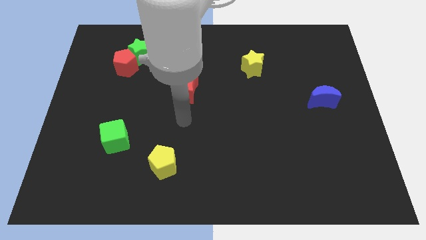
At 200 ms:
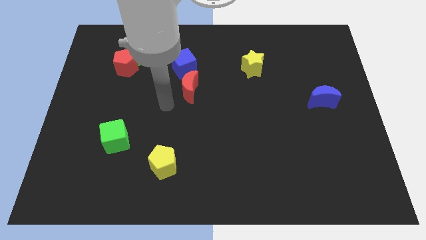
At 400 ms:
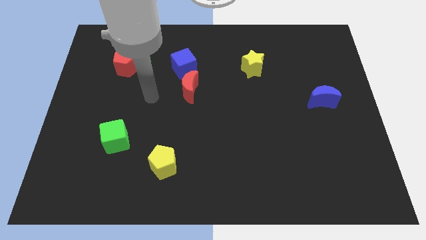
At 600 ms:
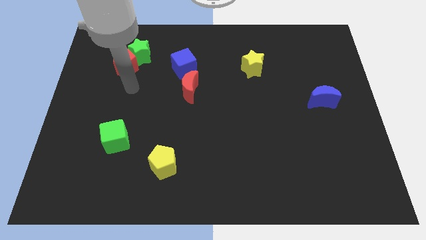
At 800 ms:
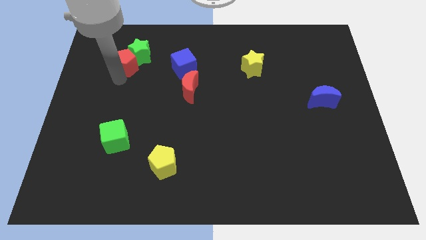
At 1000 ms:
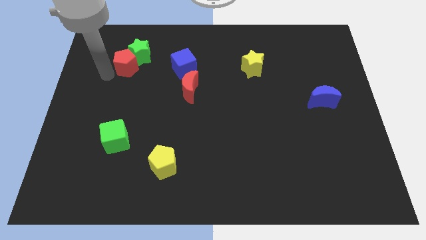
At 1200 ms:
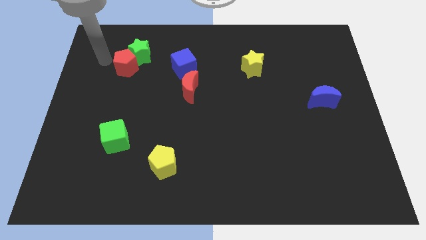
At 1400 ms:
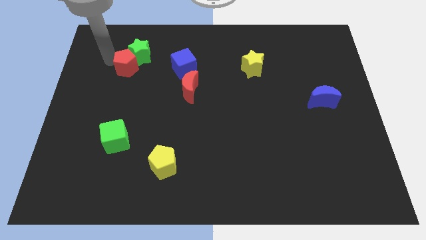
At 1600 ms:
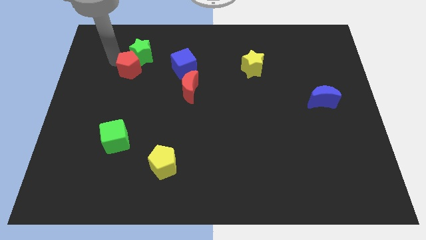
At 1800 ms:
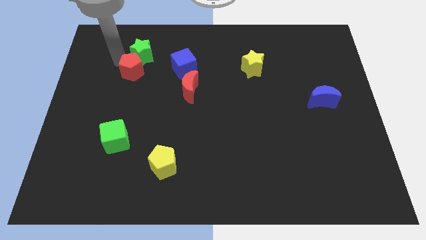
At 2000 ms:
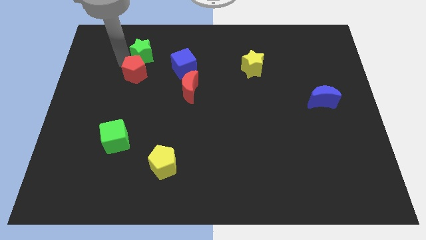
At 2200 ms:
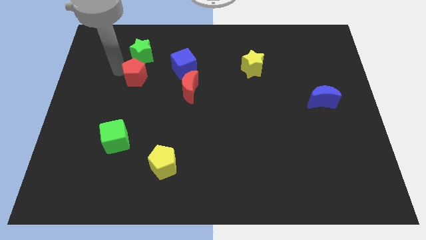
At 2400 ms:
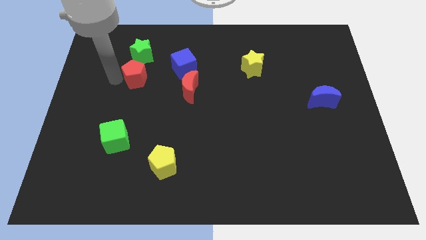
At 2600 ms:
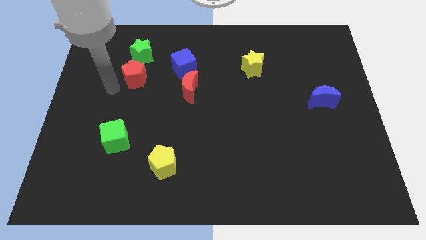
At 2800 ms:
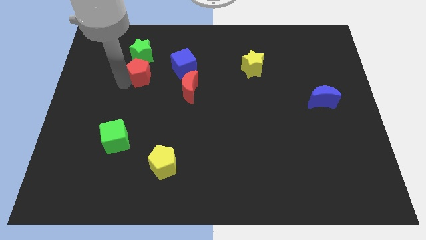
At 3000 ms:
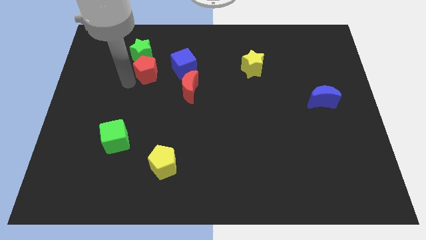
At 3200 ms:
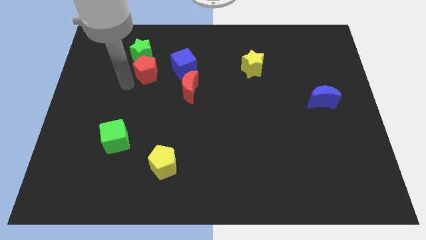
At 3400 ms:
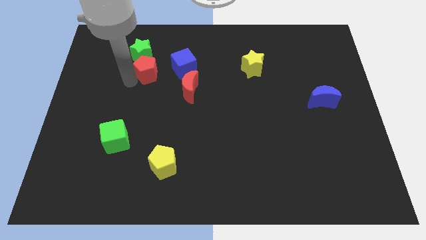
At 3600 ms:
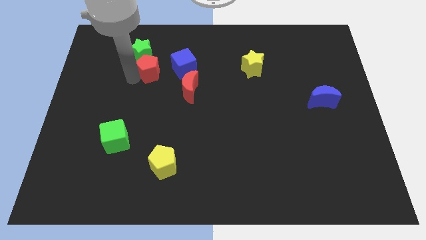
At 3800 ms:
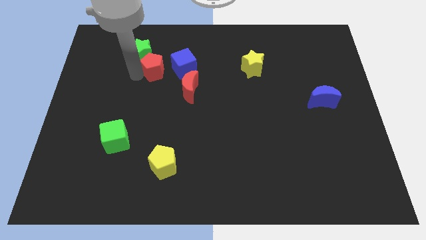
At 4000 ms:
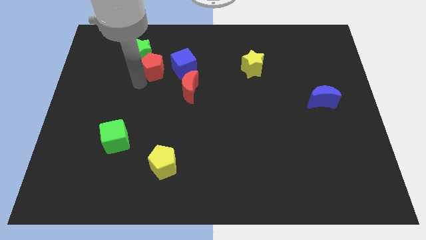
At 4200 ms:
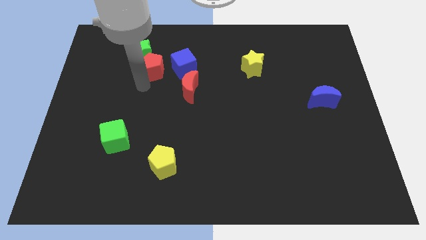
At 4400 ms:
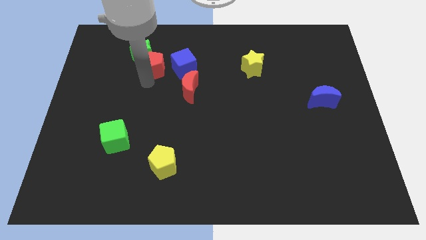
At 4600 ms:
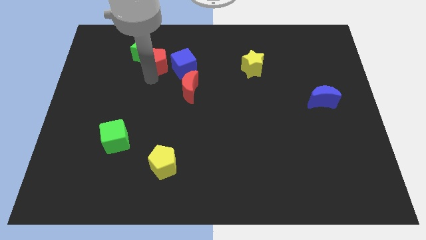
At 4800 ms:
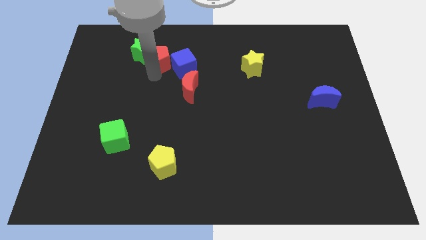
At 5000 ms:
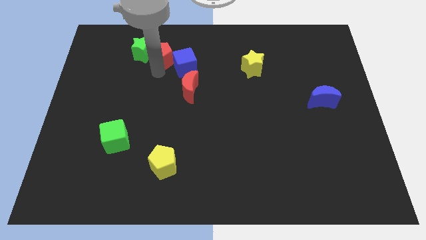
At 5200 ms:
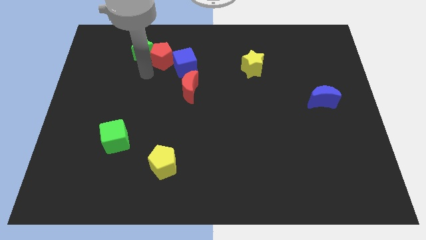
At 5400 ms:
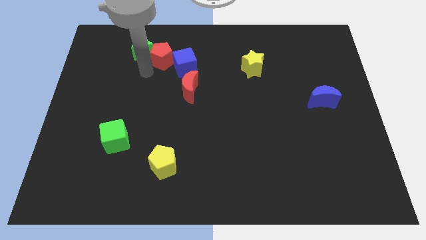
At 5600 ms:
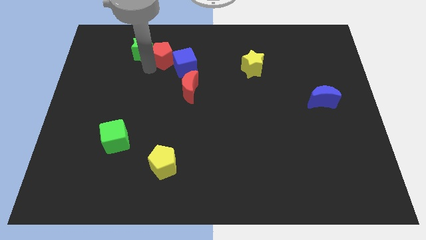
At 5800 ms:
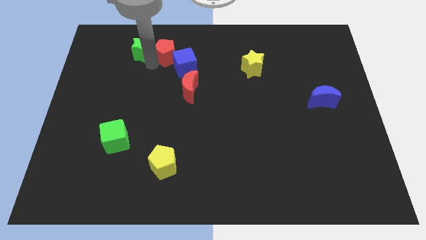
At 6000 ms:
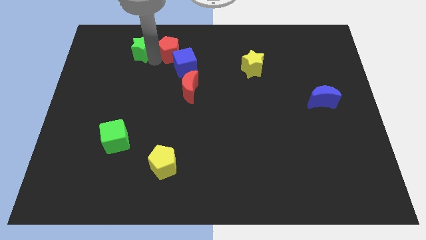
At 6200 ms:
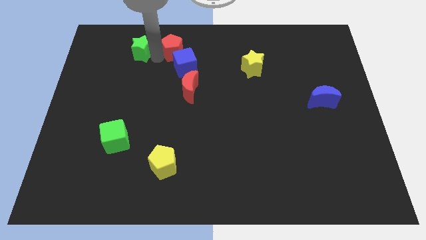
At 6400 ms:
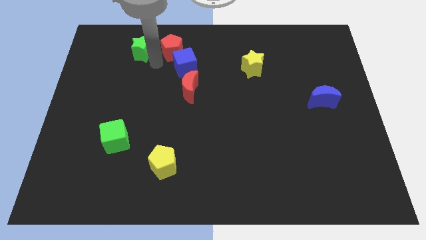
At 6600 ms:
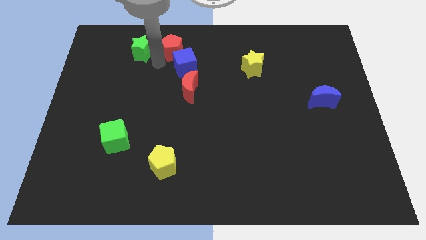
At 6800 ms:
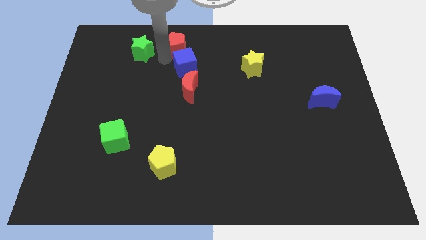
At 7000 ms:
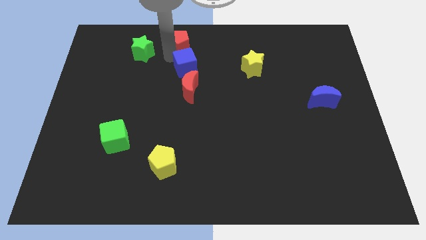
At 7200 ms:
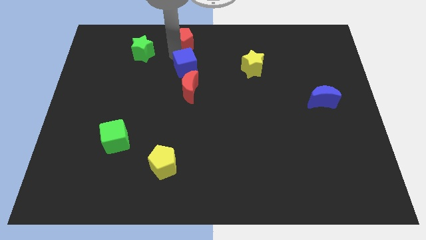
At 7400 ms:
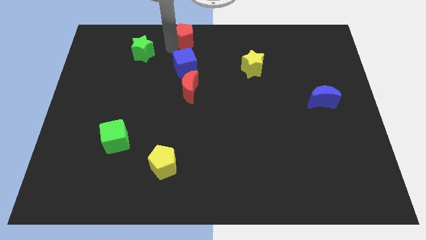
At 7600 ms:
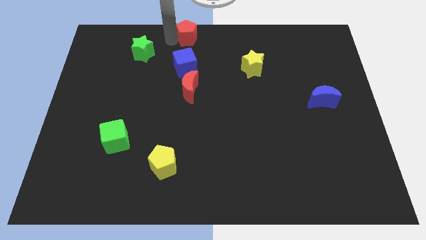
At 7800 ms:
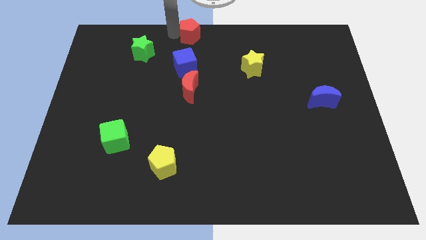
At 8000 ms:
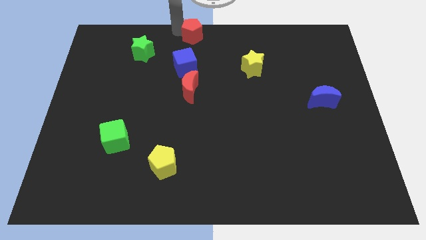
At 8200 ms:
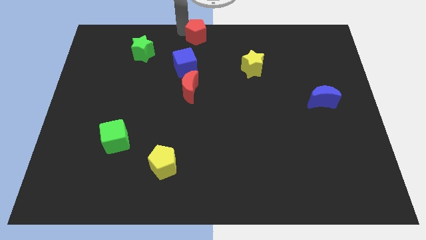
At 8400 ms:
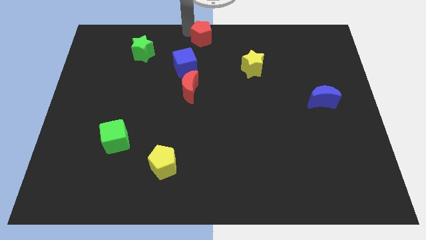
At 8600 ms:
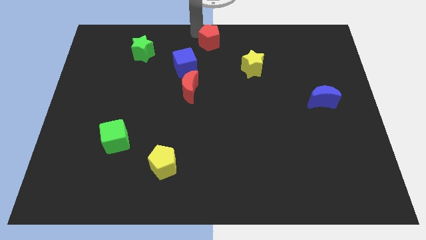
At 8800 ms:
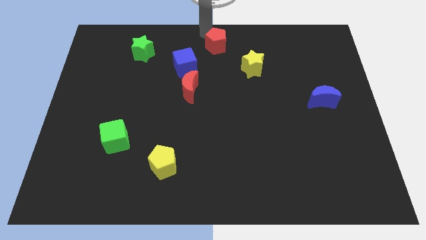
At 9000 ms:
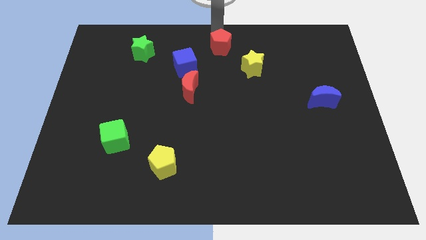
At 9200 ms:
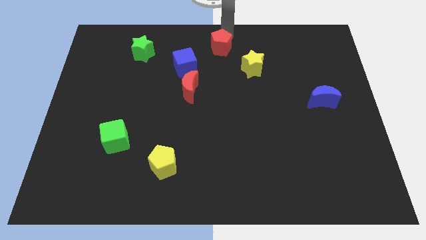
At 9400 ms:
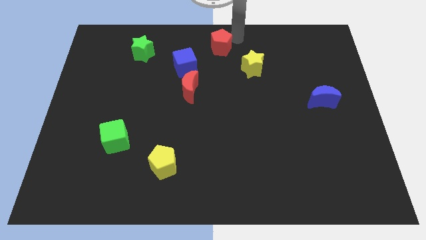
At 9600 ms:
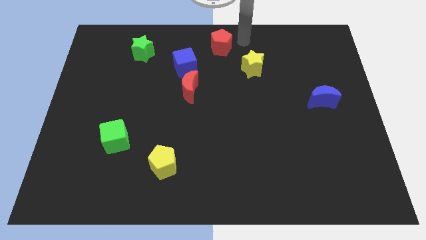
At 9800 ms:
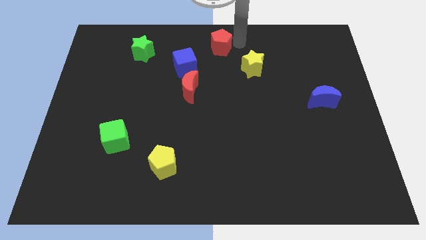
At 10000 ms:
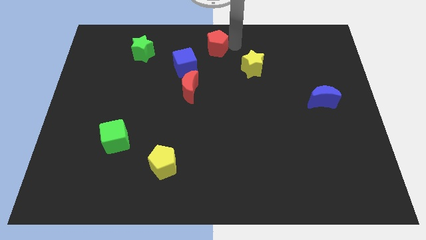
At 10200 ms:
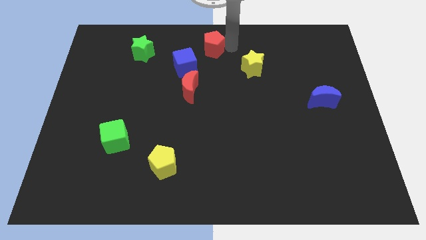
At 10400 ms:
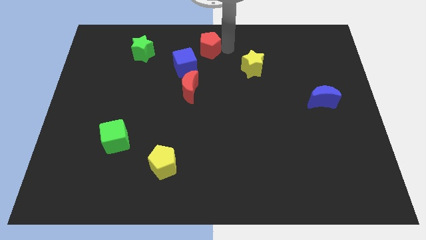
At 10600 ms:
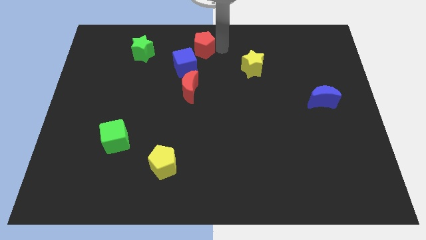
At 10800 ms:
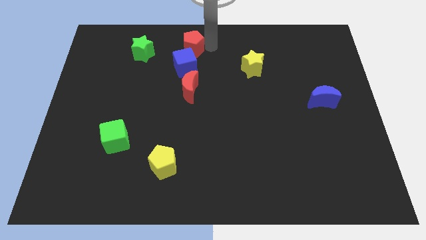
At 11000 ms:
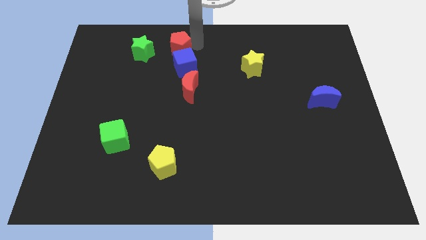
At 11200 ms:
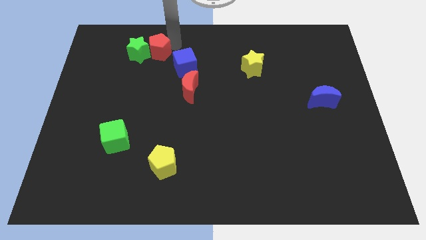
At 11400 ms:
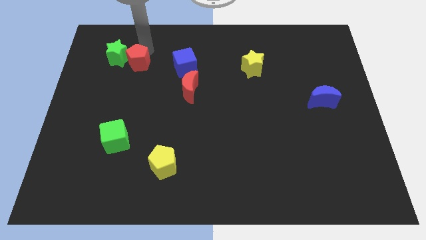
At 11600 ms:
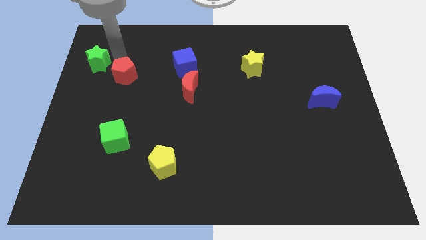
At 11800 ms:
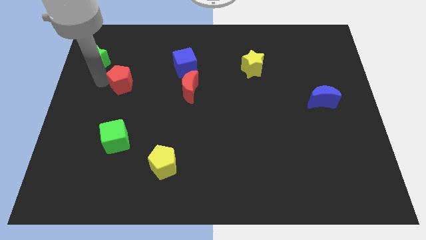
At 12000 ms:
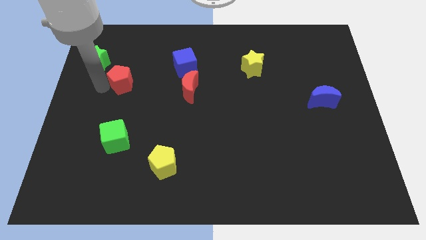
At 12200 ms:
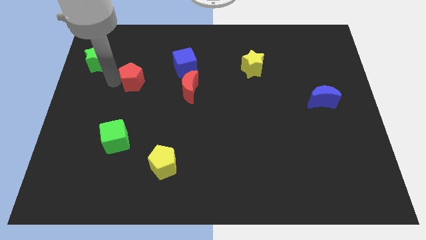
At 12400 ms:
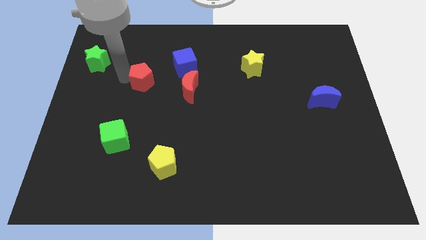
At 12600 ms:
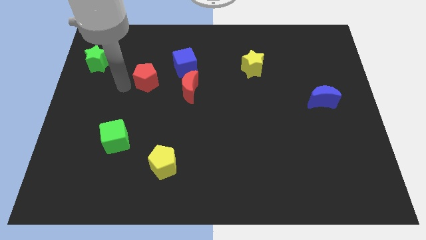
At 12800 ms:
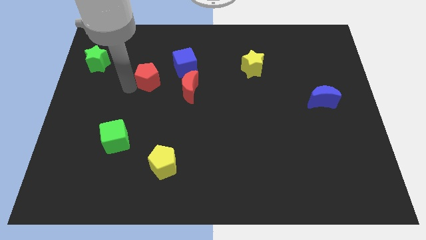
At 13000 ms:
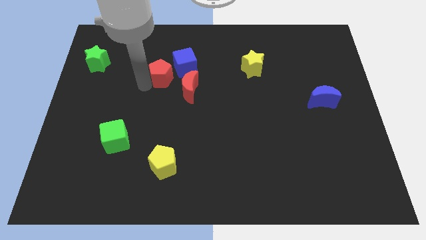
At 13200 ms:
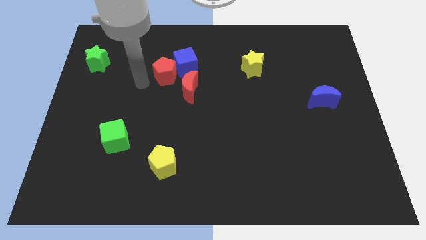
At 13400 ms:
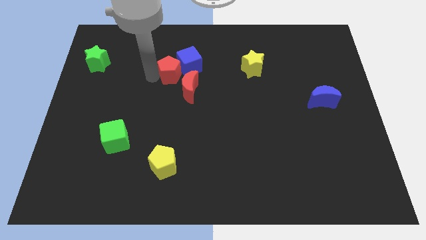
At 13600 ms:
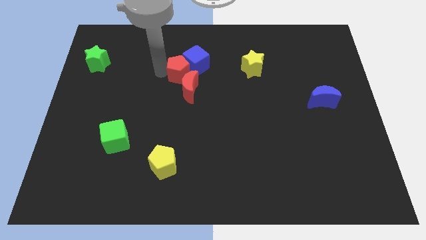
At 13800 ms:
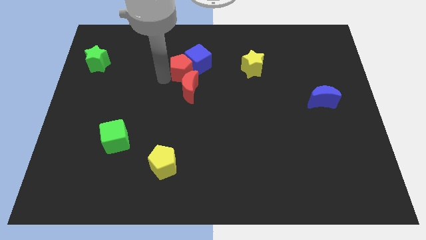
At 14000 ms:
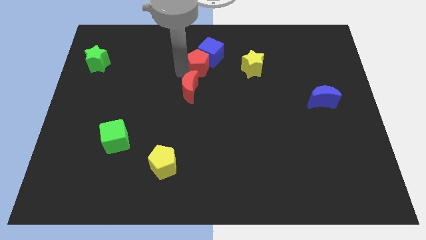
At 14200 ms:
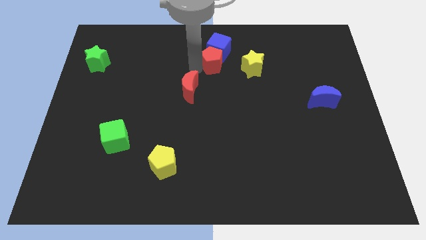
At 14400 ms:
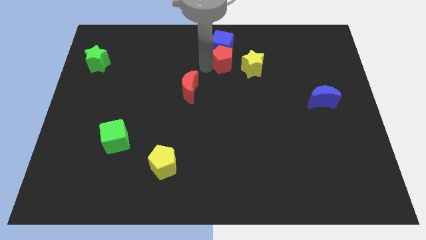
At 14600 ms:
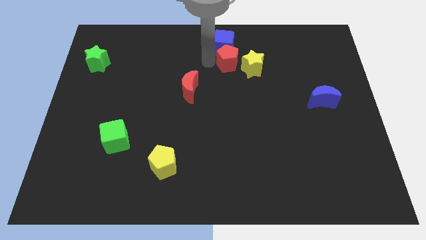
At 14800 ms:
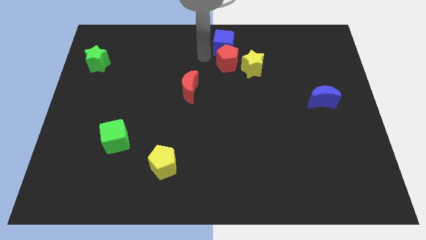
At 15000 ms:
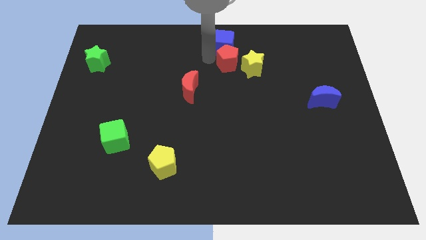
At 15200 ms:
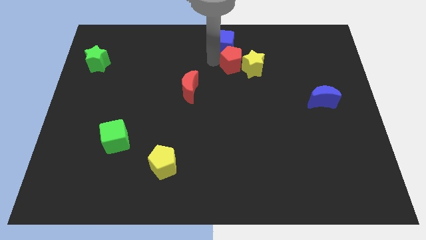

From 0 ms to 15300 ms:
move the red pentagon towards the yellow star
